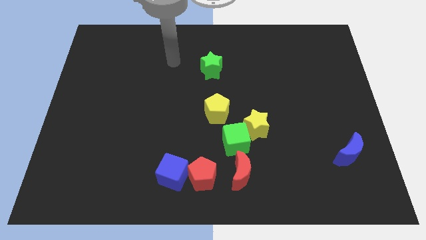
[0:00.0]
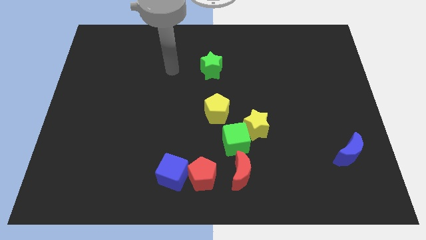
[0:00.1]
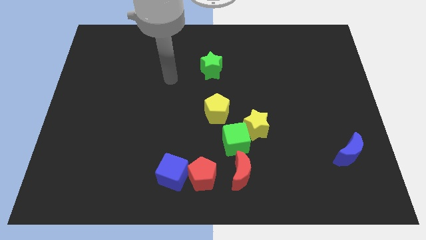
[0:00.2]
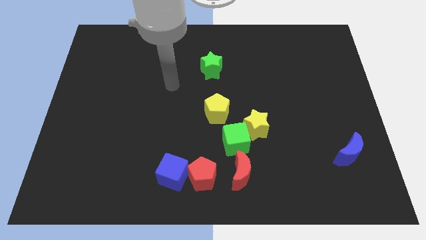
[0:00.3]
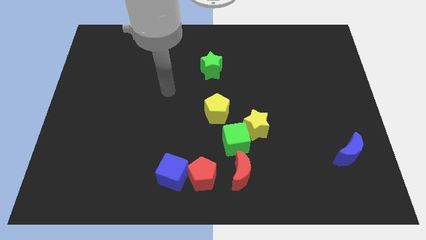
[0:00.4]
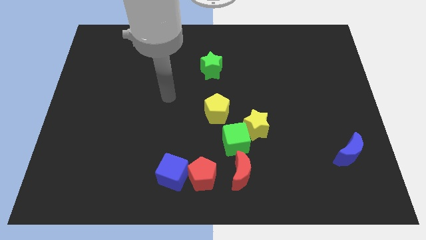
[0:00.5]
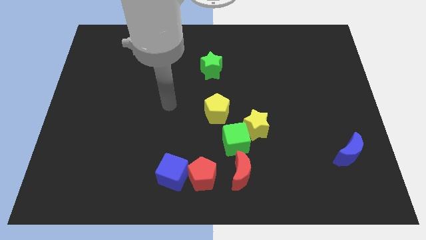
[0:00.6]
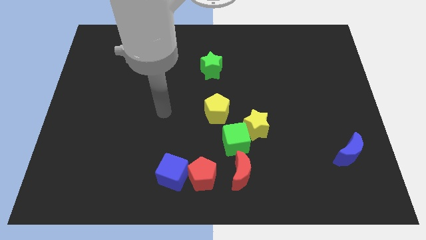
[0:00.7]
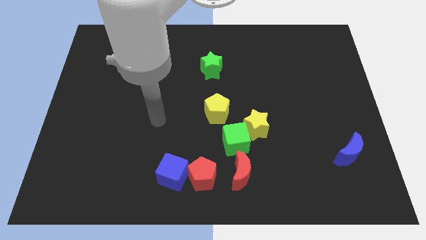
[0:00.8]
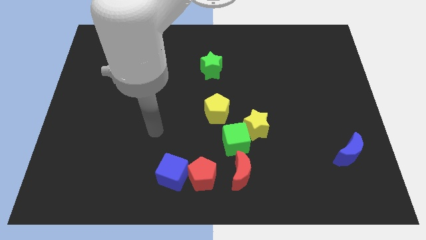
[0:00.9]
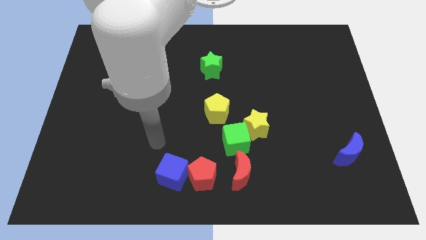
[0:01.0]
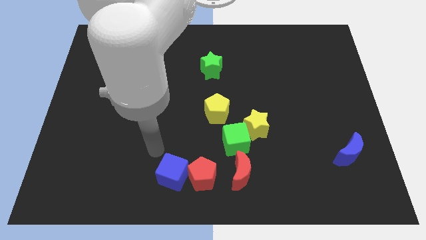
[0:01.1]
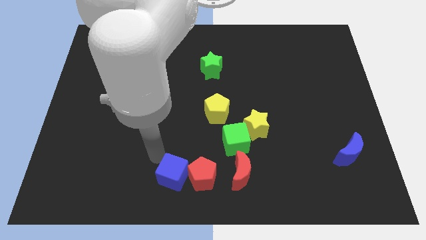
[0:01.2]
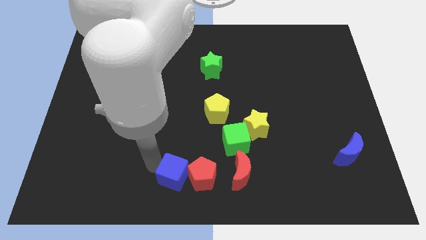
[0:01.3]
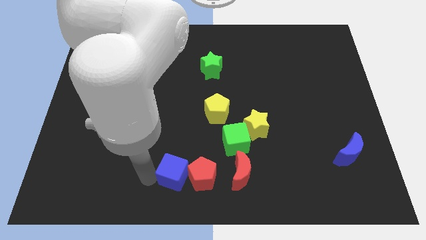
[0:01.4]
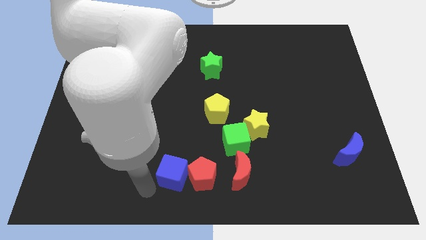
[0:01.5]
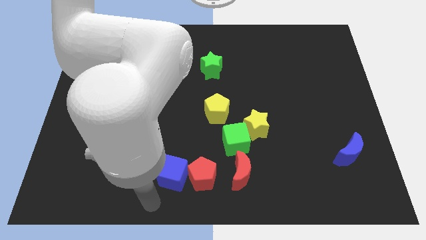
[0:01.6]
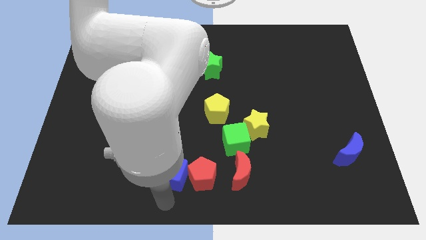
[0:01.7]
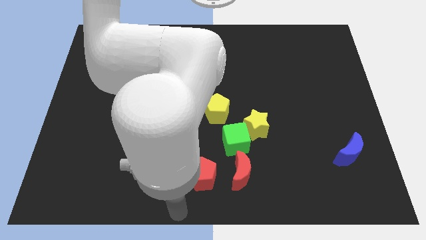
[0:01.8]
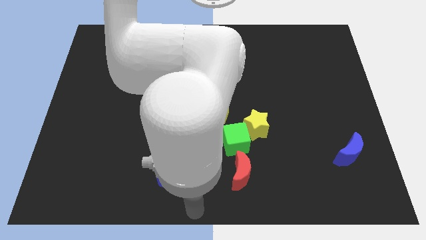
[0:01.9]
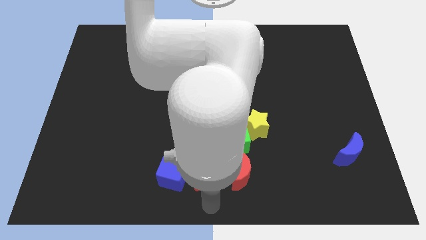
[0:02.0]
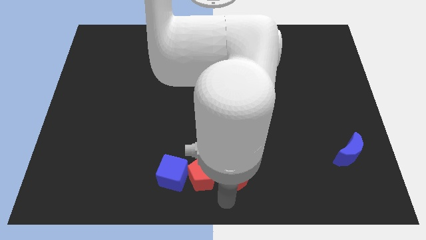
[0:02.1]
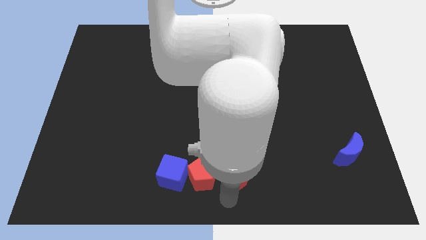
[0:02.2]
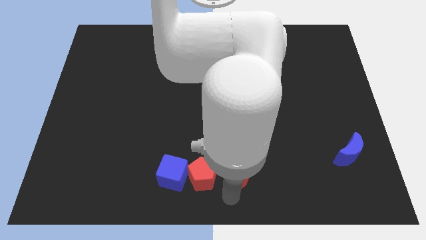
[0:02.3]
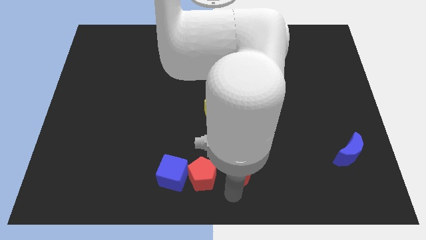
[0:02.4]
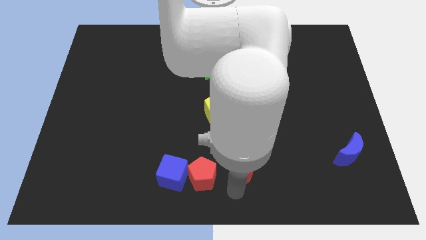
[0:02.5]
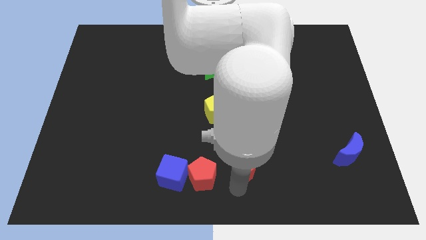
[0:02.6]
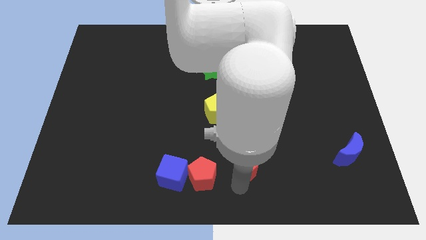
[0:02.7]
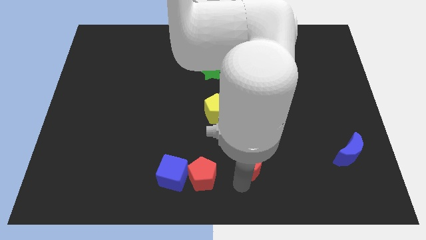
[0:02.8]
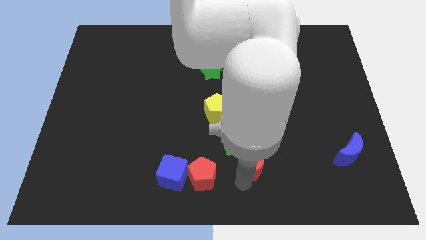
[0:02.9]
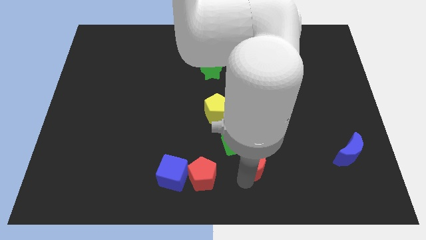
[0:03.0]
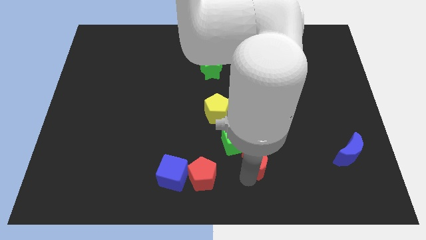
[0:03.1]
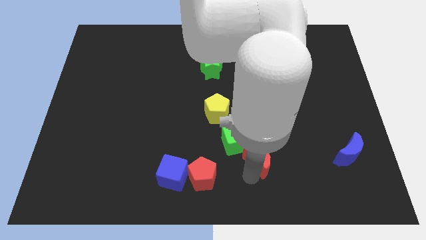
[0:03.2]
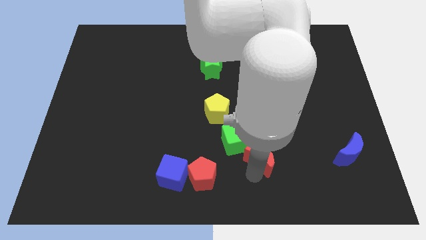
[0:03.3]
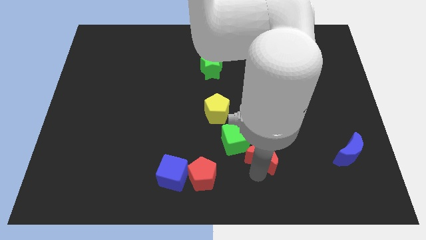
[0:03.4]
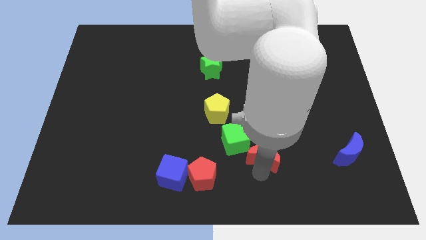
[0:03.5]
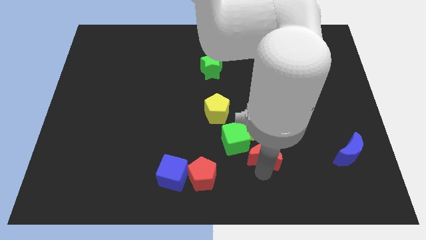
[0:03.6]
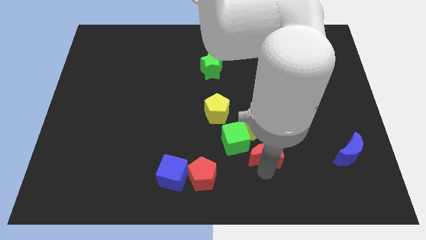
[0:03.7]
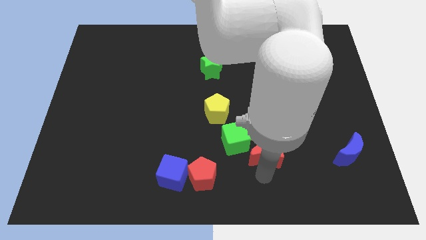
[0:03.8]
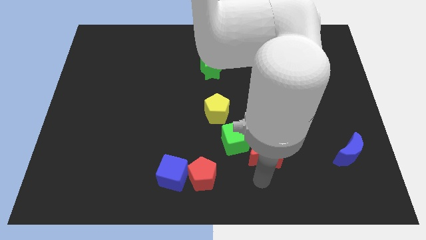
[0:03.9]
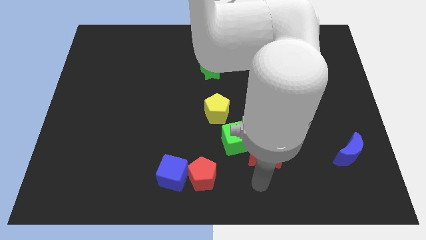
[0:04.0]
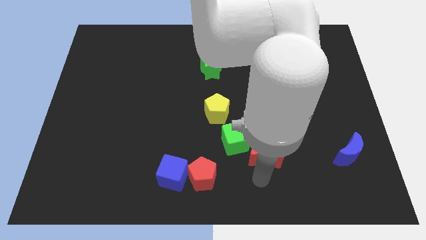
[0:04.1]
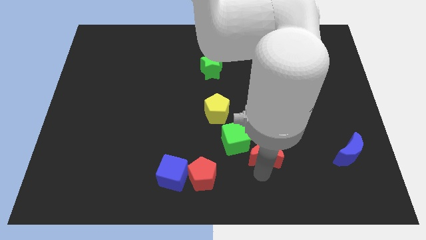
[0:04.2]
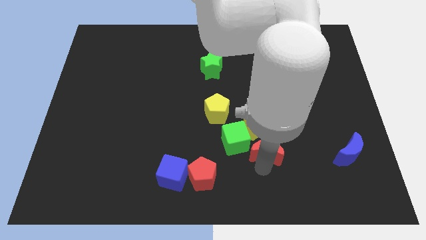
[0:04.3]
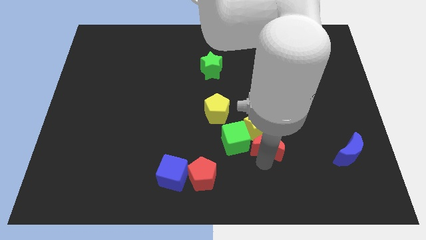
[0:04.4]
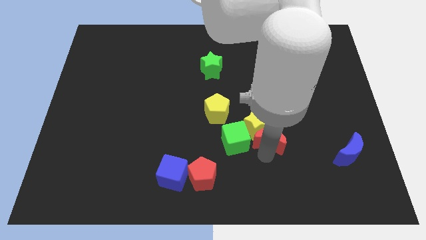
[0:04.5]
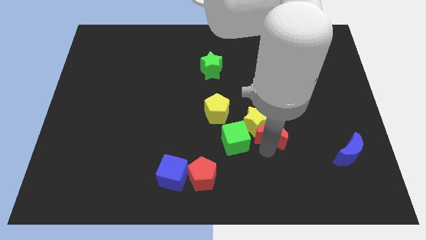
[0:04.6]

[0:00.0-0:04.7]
slide the red moon slightly up

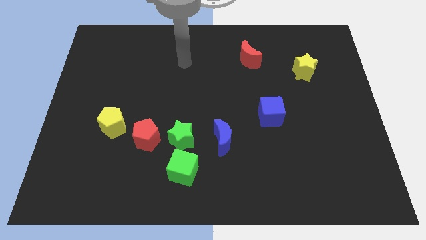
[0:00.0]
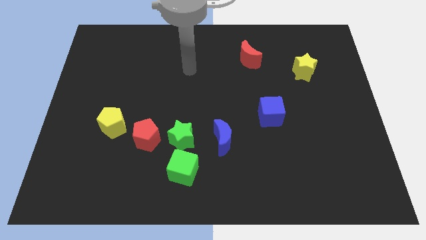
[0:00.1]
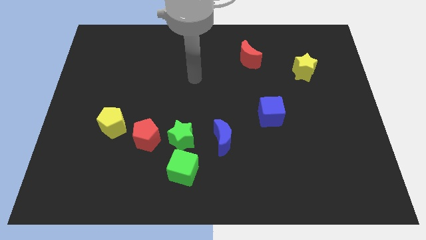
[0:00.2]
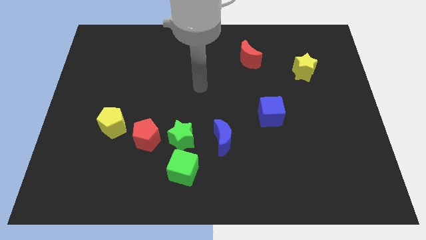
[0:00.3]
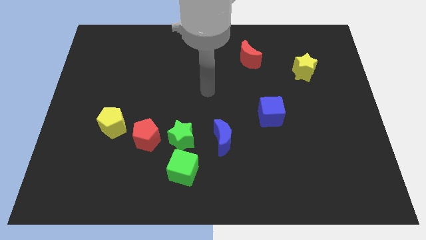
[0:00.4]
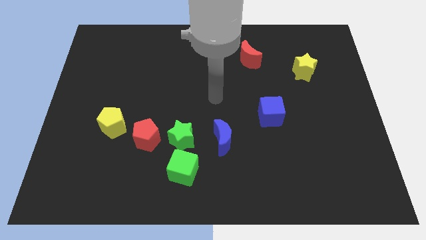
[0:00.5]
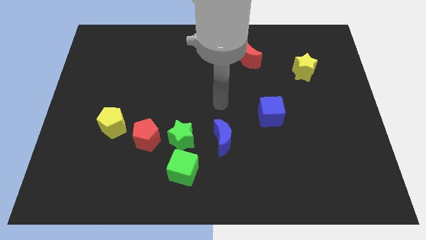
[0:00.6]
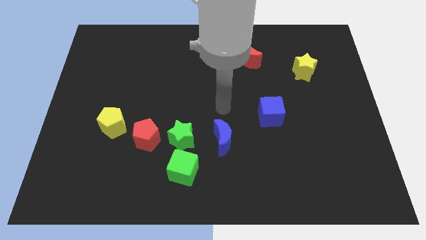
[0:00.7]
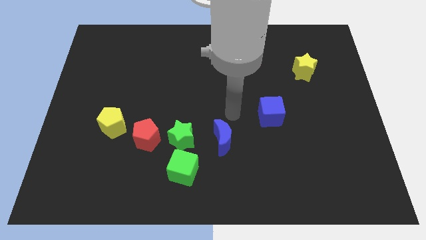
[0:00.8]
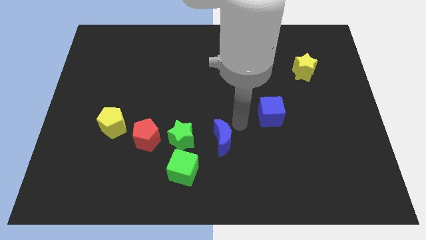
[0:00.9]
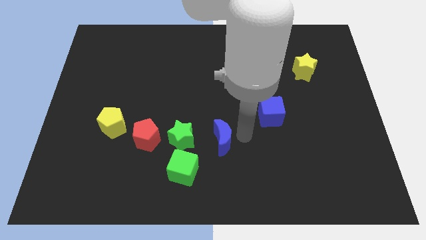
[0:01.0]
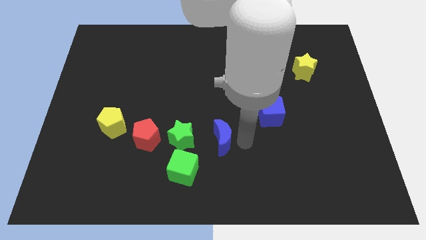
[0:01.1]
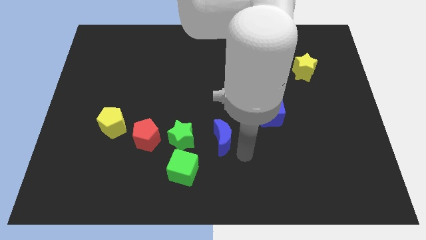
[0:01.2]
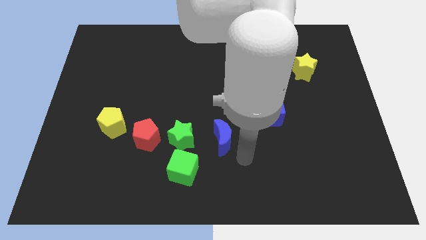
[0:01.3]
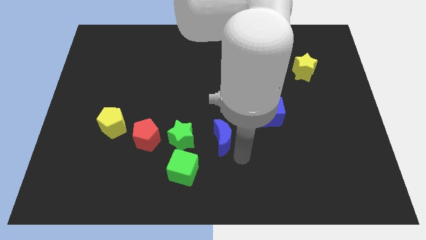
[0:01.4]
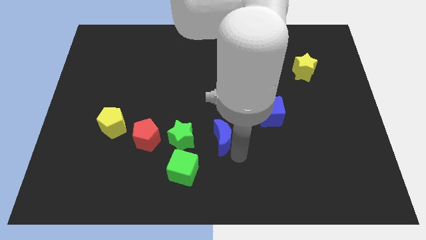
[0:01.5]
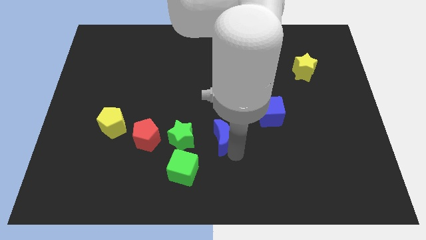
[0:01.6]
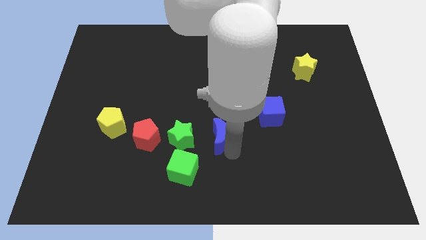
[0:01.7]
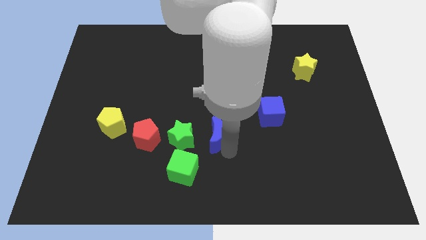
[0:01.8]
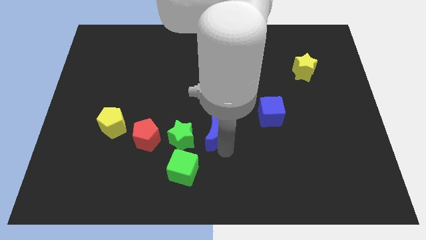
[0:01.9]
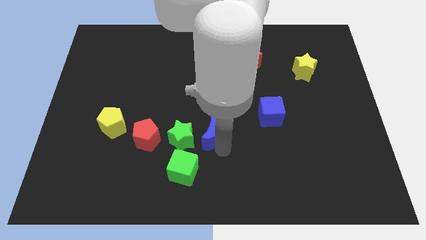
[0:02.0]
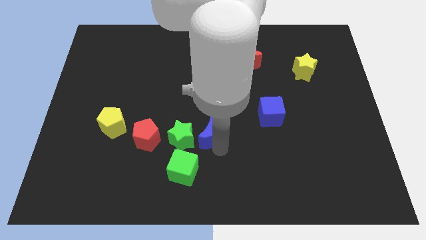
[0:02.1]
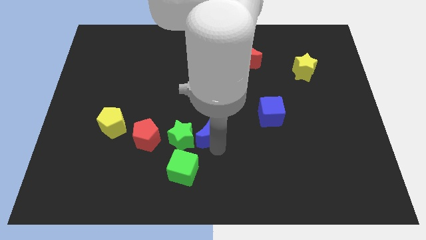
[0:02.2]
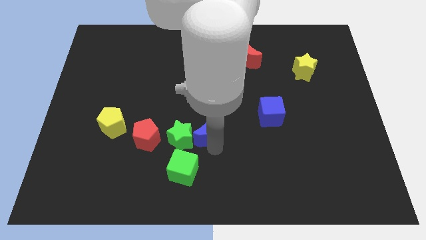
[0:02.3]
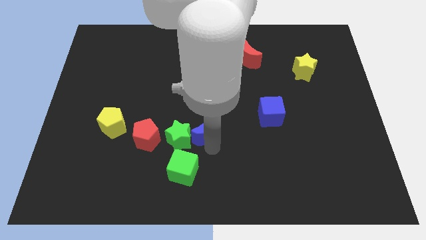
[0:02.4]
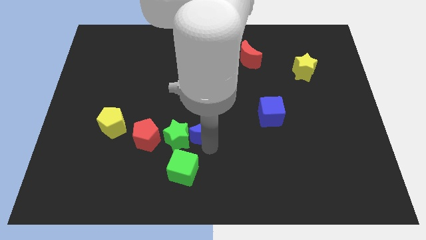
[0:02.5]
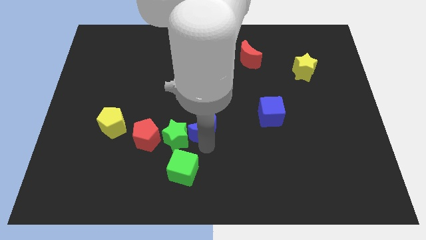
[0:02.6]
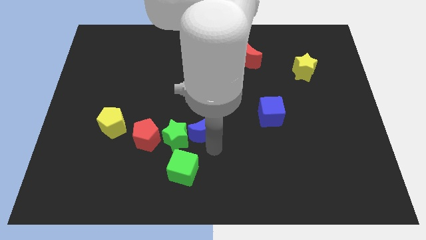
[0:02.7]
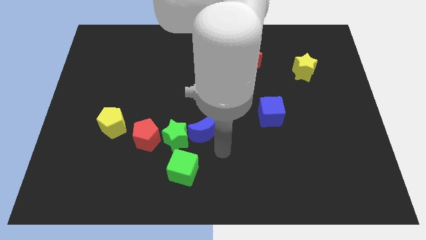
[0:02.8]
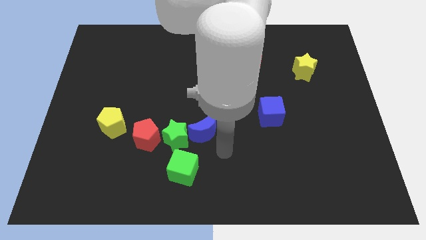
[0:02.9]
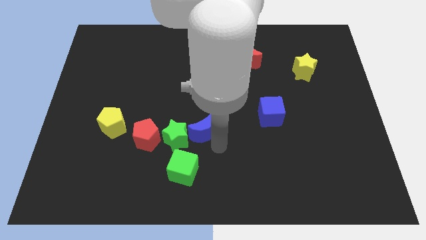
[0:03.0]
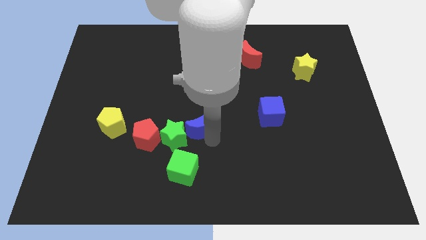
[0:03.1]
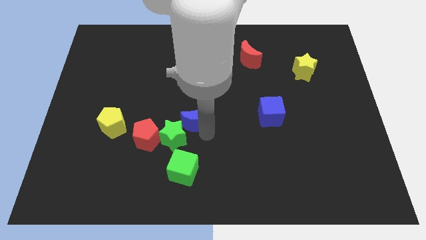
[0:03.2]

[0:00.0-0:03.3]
slightly slide the blue moon diagonally upwards and to the left

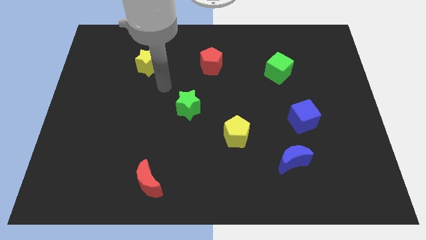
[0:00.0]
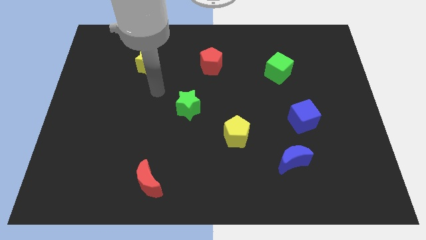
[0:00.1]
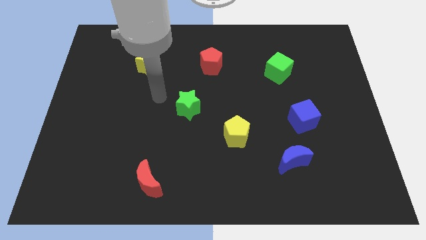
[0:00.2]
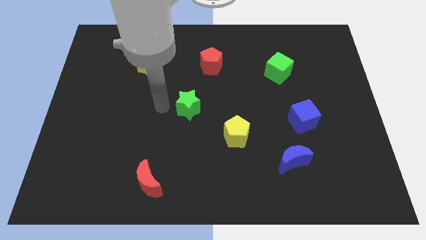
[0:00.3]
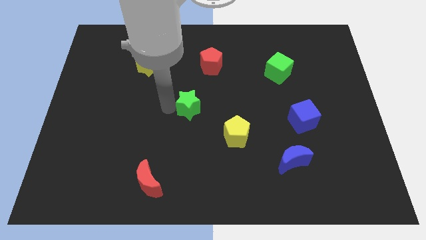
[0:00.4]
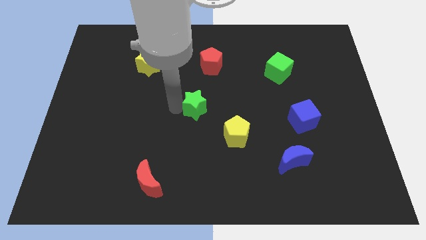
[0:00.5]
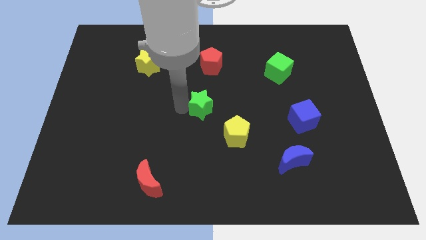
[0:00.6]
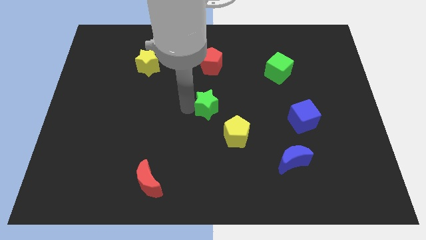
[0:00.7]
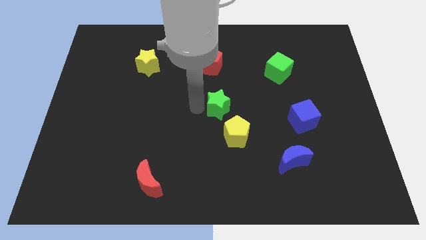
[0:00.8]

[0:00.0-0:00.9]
slide the green star to the right a little bit
